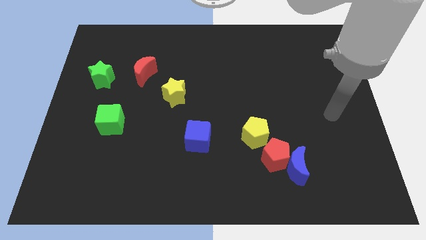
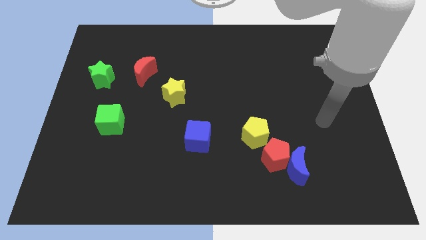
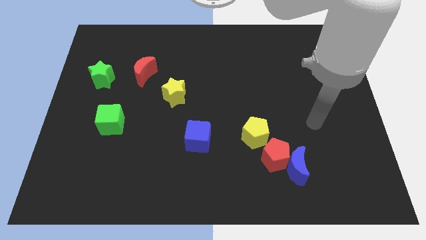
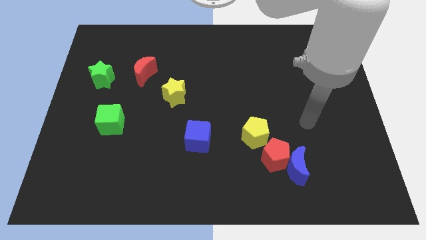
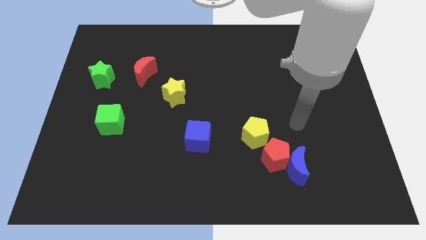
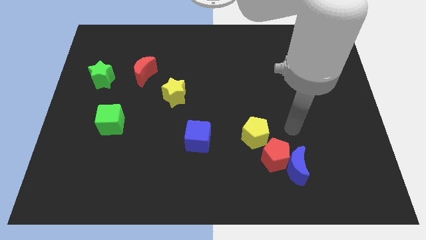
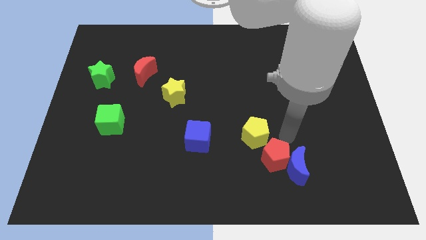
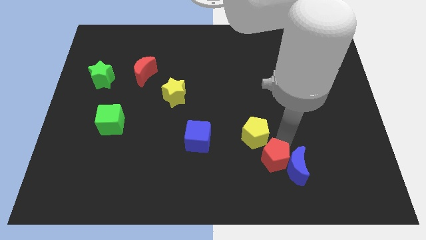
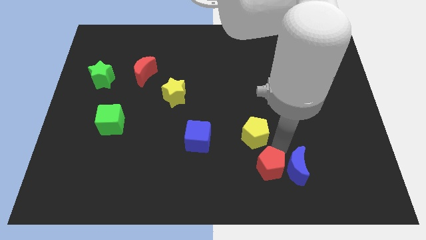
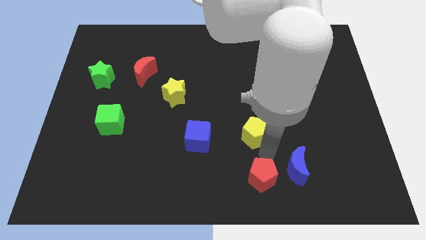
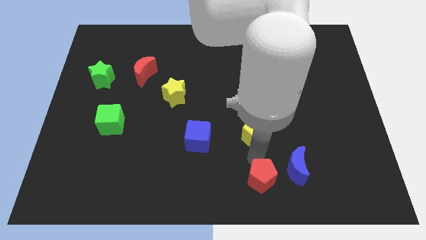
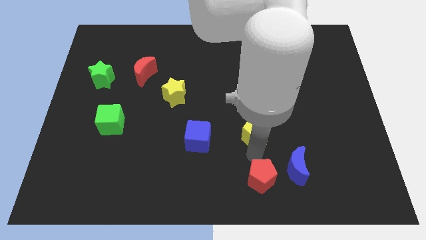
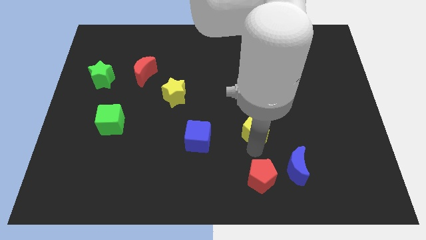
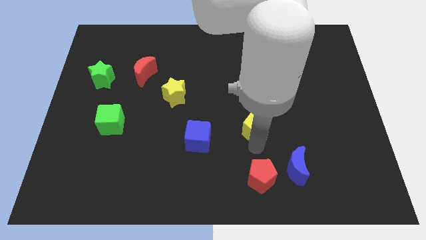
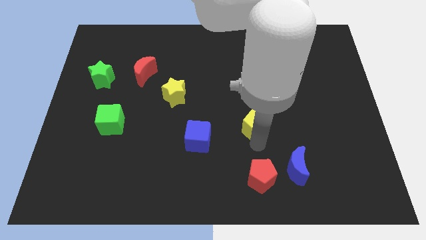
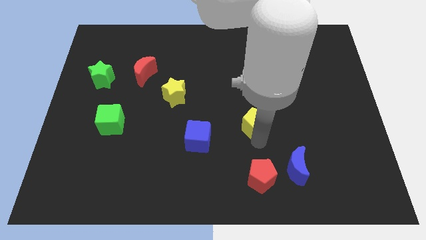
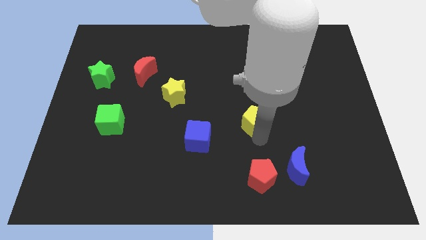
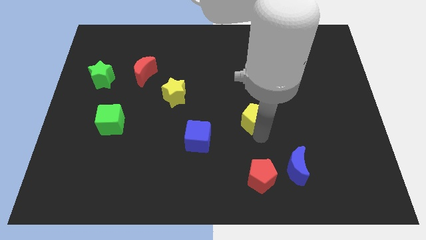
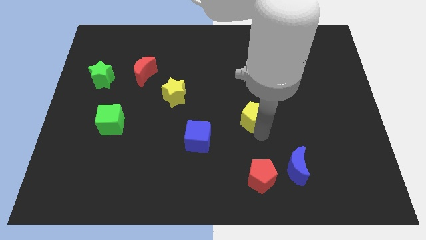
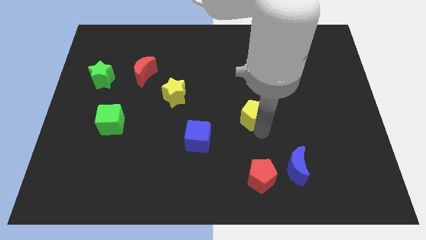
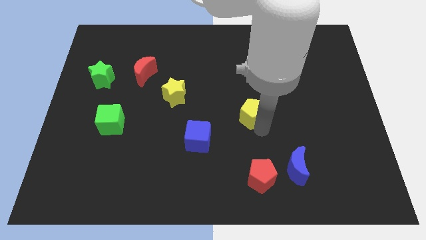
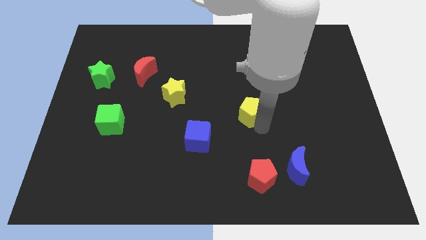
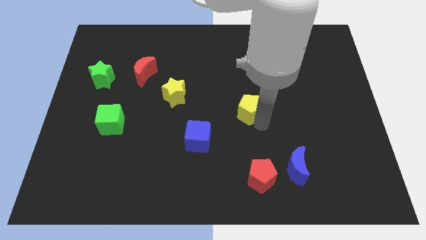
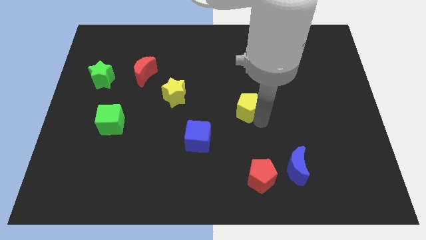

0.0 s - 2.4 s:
slightly move the yellow pentagon upwards

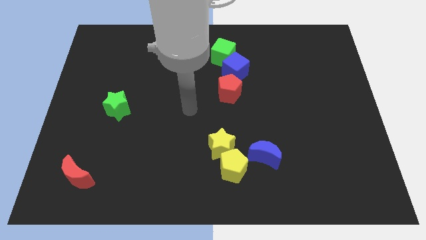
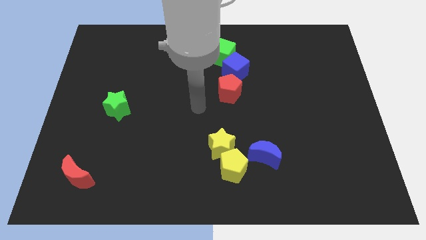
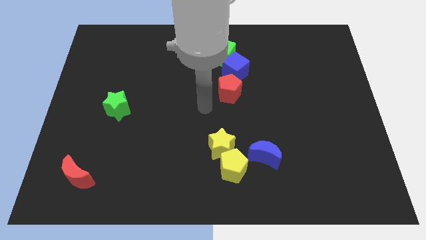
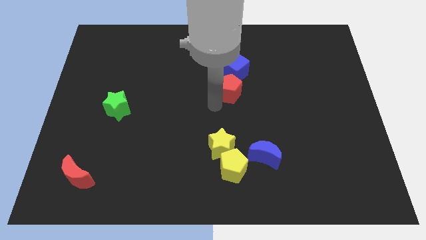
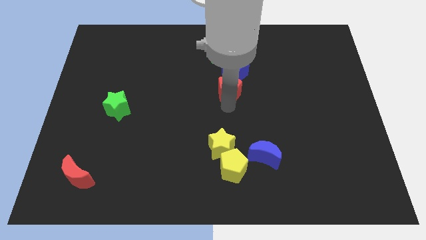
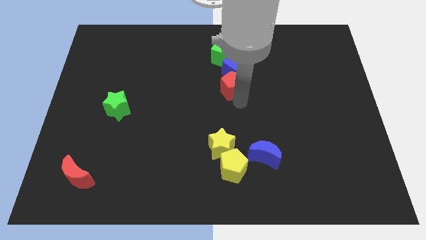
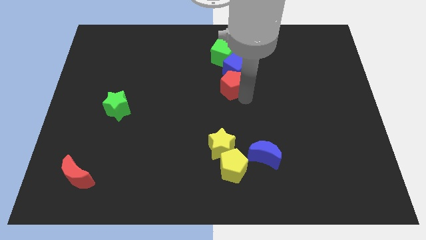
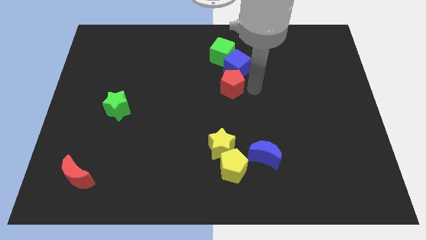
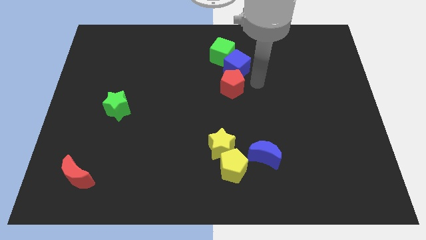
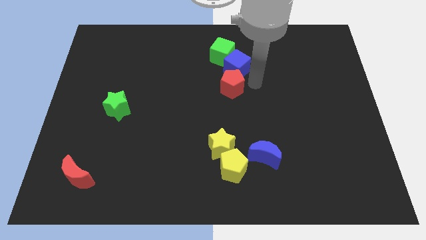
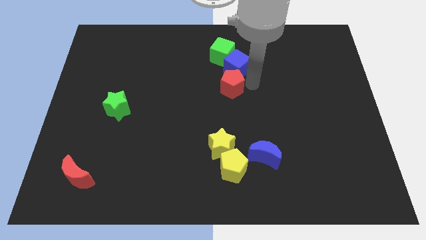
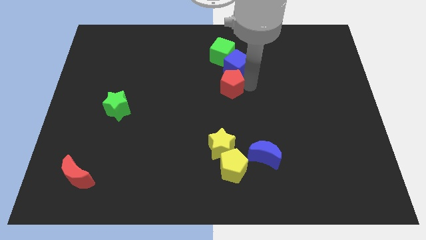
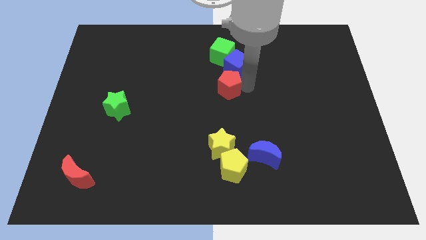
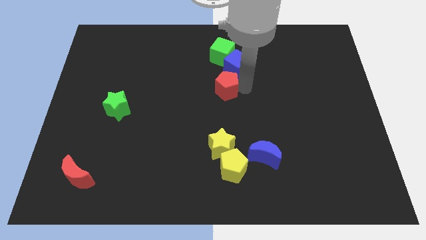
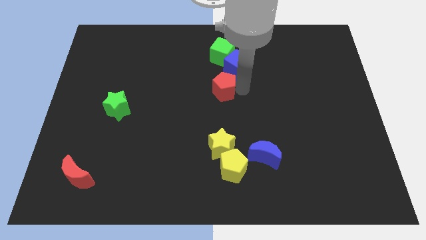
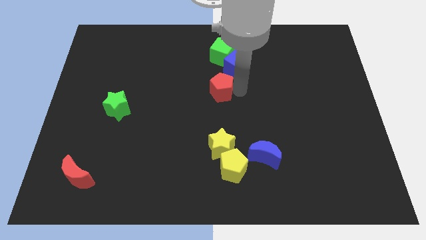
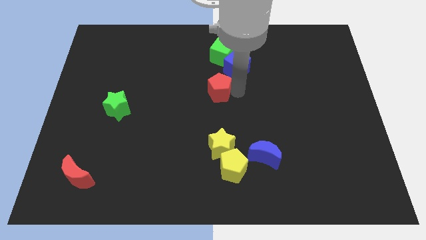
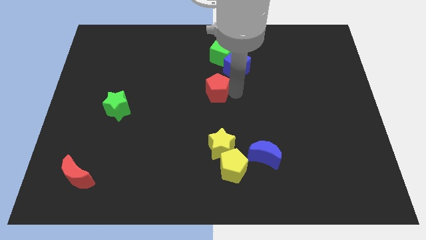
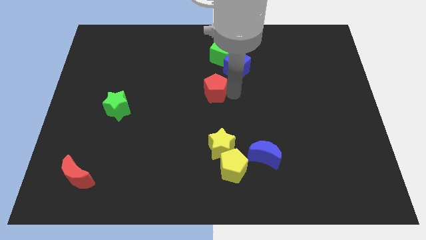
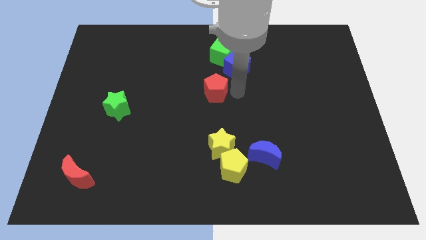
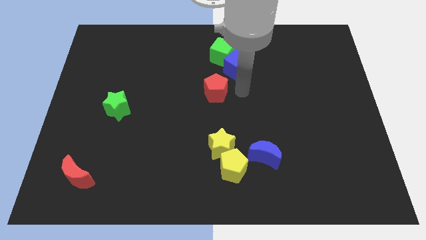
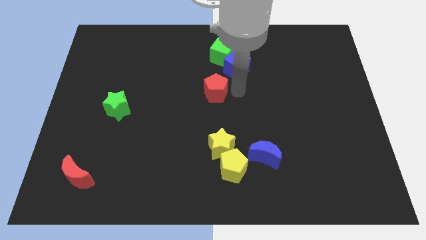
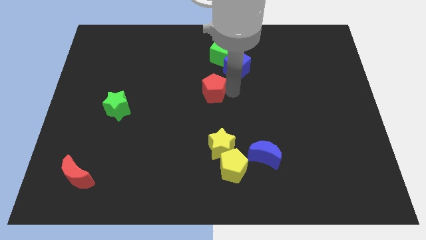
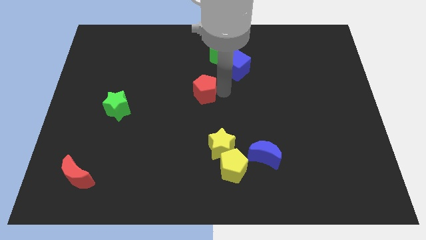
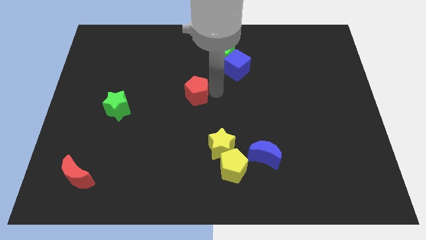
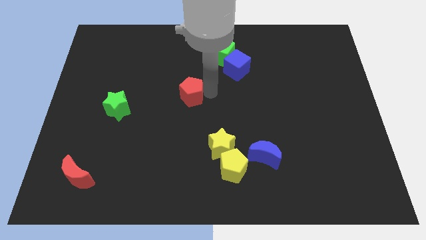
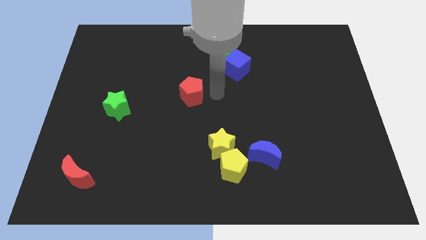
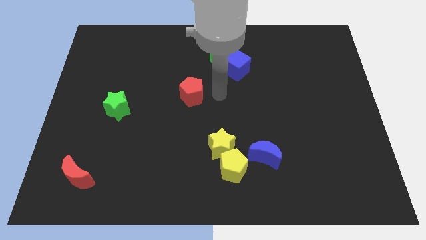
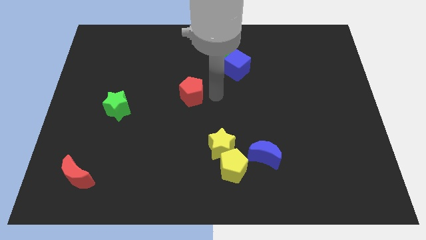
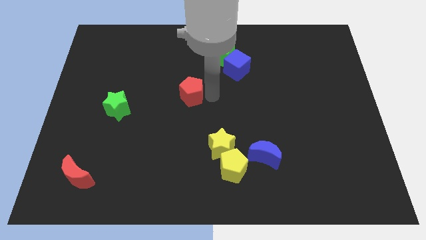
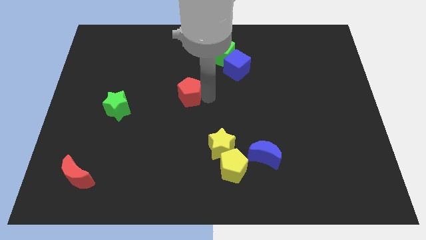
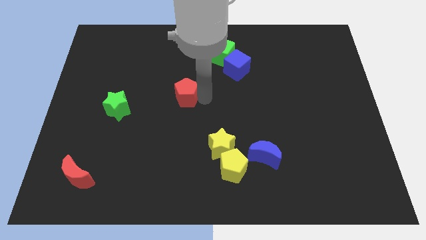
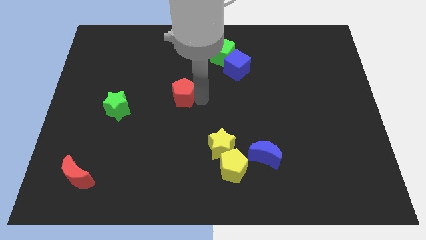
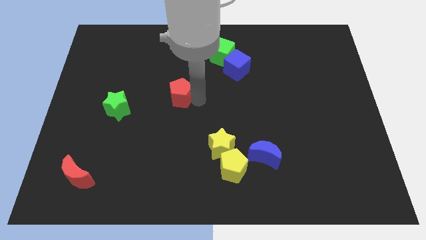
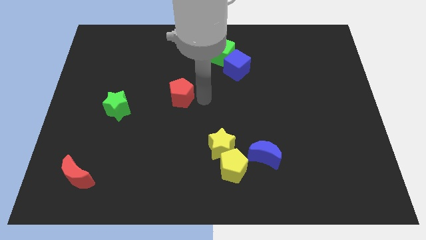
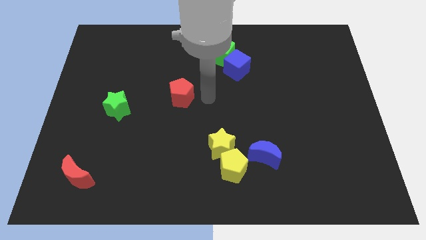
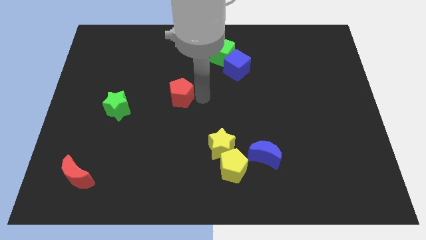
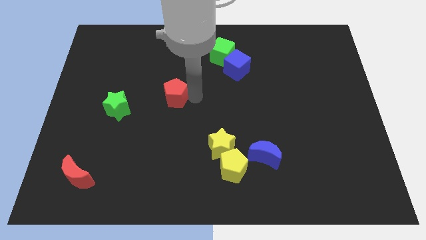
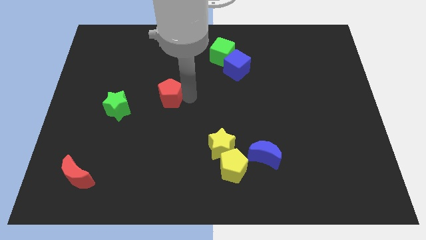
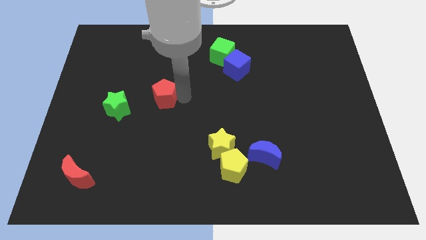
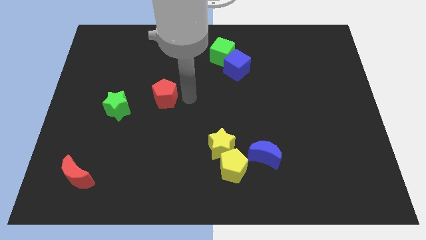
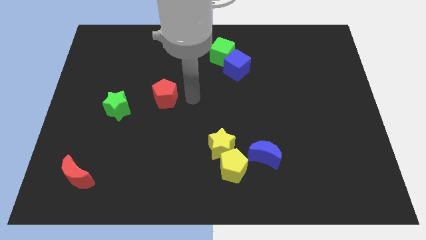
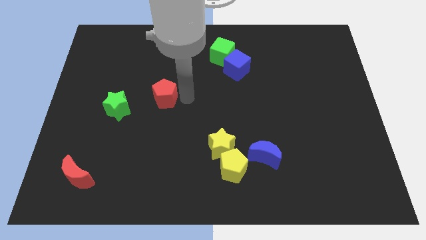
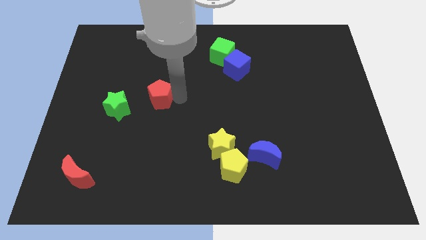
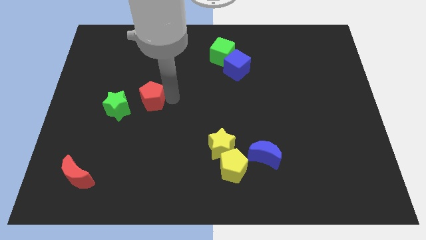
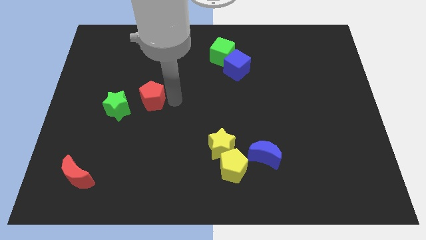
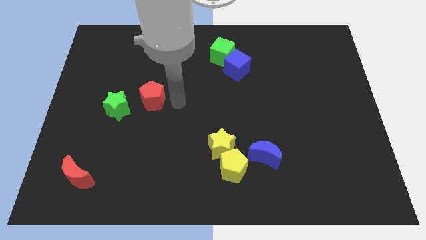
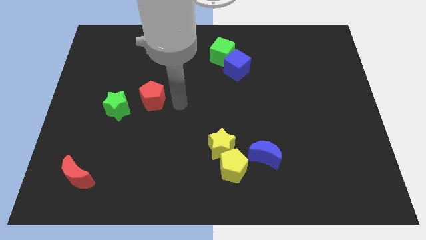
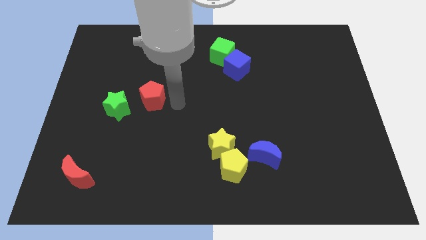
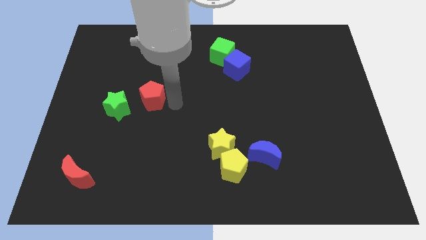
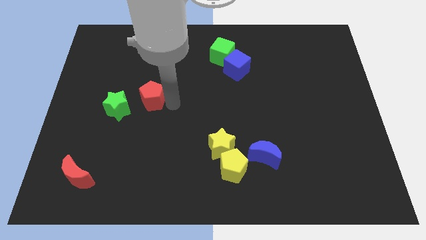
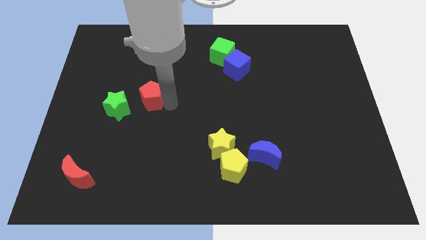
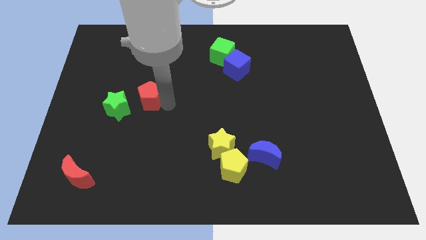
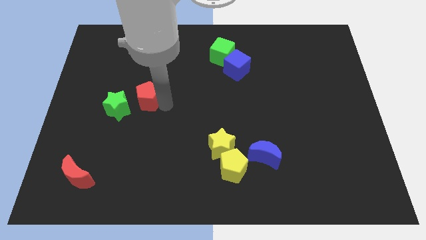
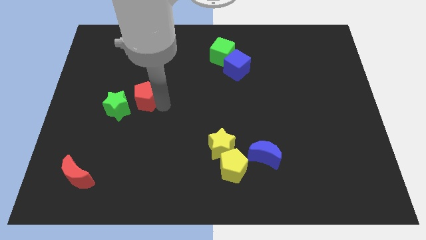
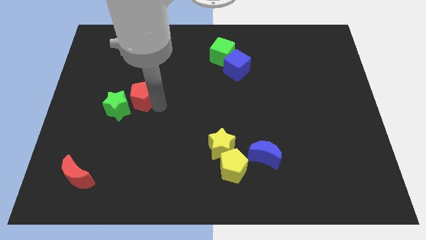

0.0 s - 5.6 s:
slide the red pentagon left
